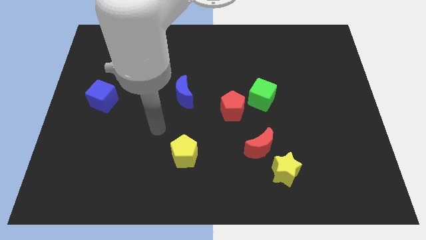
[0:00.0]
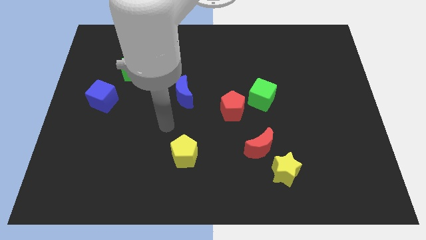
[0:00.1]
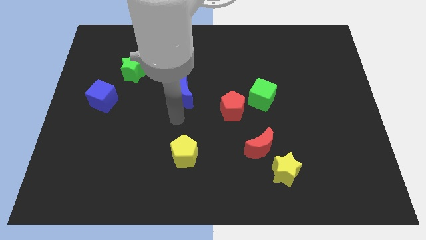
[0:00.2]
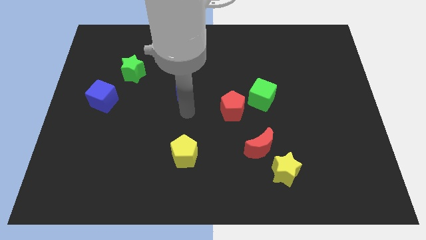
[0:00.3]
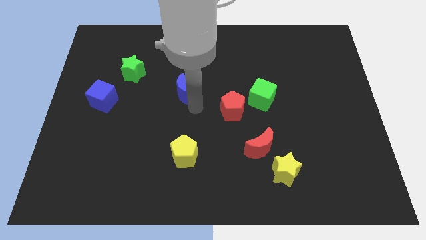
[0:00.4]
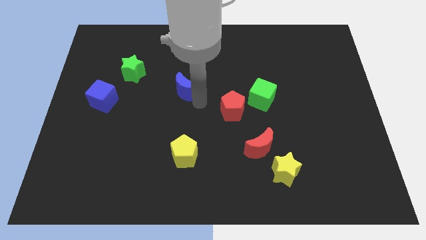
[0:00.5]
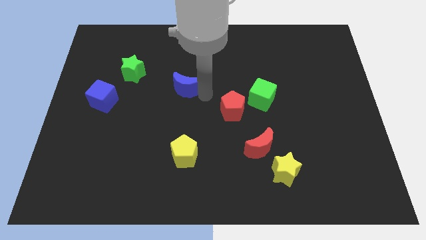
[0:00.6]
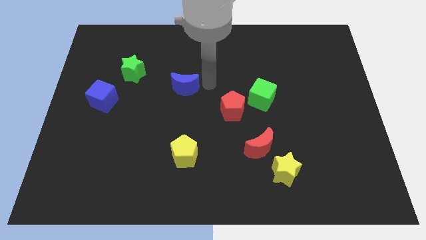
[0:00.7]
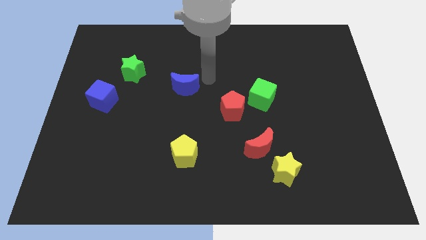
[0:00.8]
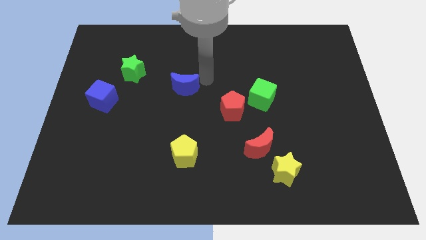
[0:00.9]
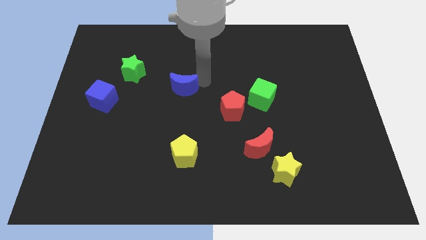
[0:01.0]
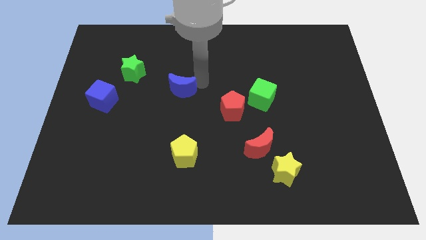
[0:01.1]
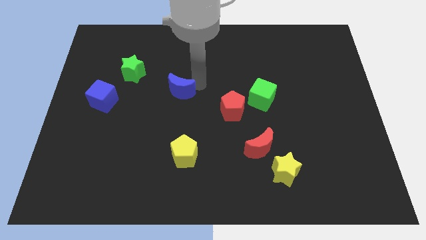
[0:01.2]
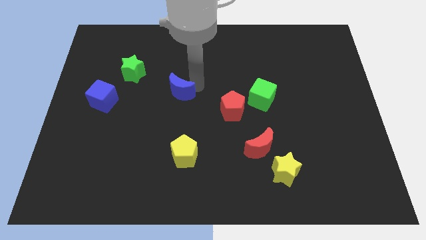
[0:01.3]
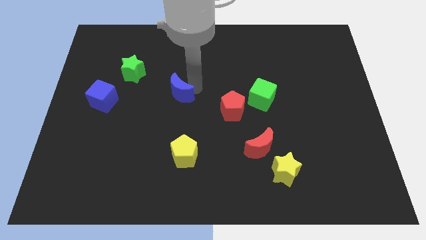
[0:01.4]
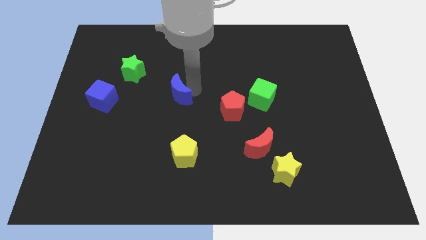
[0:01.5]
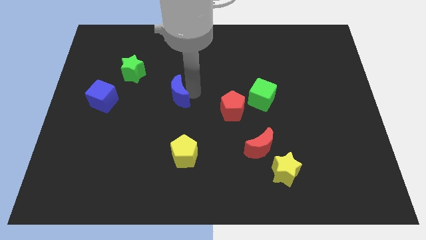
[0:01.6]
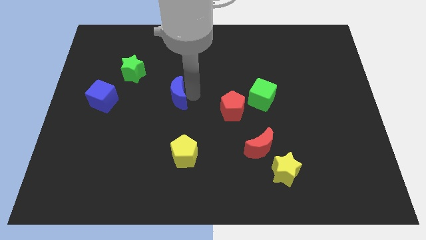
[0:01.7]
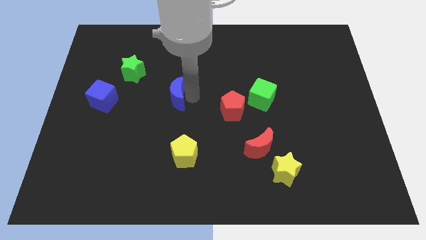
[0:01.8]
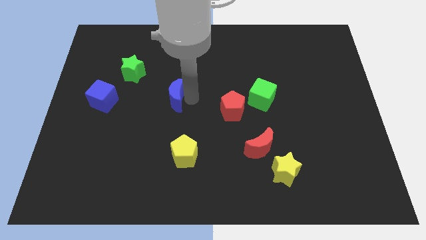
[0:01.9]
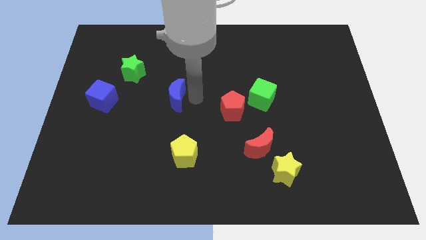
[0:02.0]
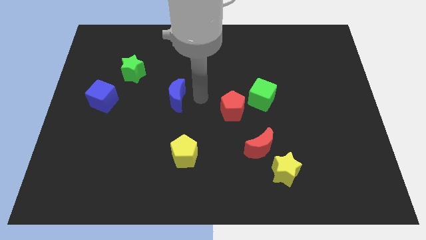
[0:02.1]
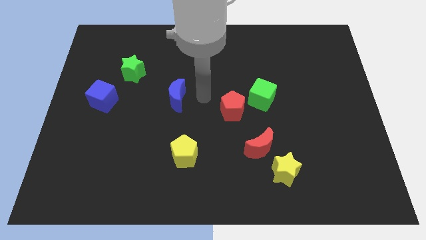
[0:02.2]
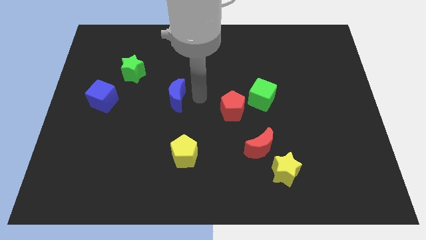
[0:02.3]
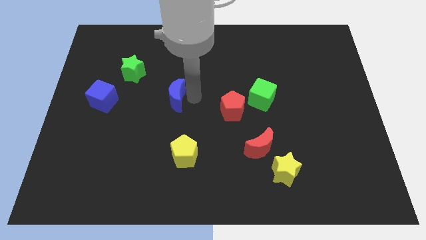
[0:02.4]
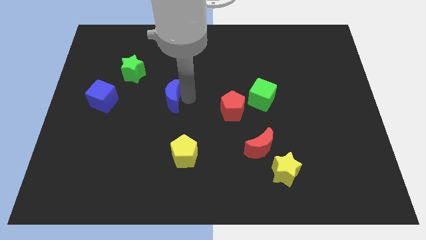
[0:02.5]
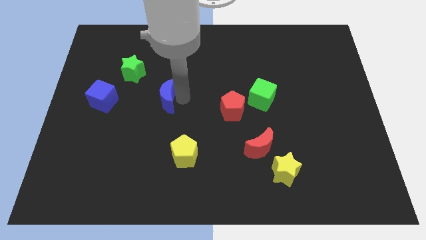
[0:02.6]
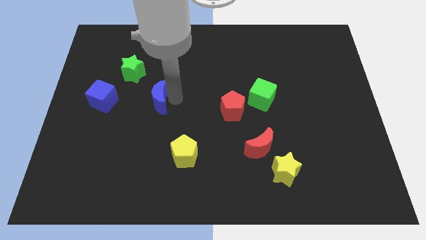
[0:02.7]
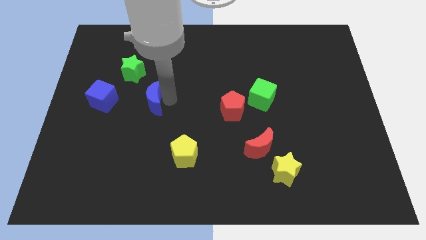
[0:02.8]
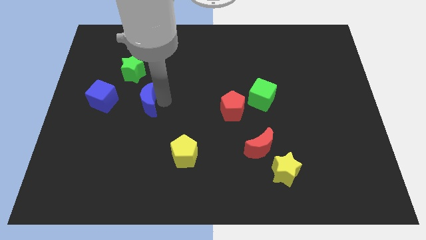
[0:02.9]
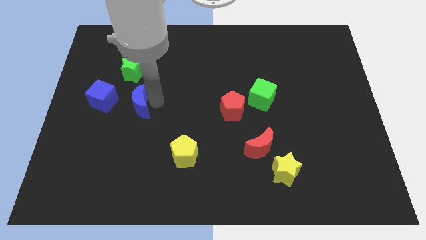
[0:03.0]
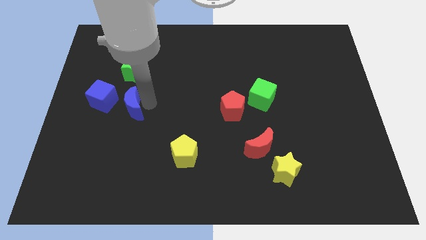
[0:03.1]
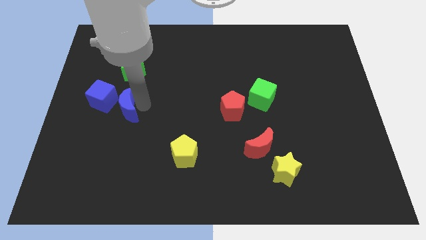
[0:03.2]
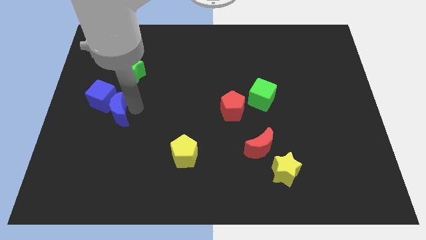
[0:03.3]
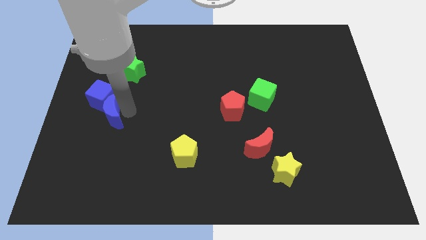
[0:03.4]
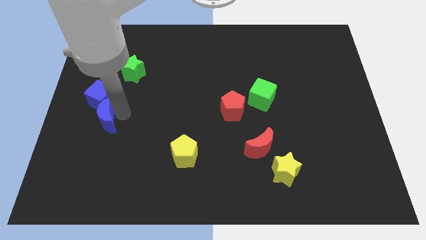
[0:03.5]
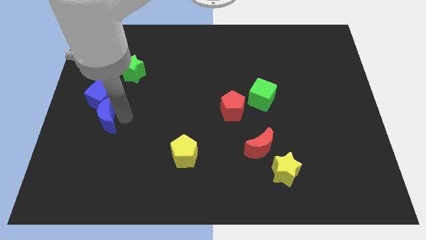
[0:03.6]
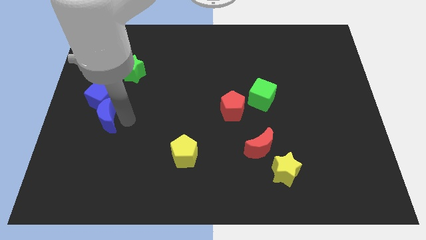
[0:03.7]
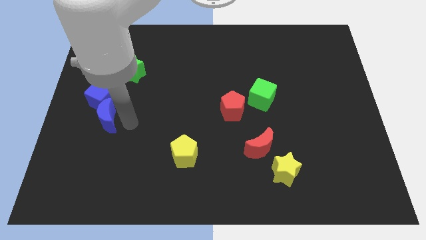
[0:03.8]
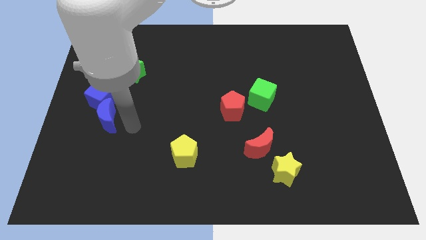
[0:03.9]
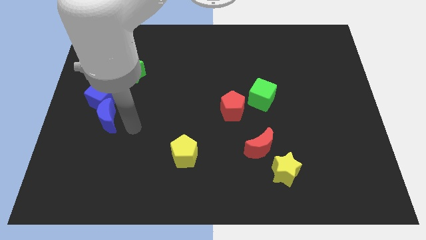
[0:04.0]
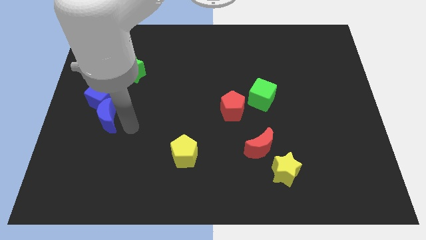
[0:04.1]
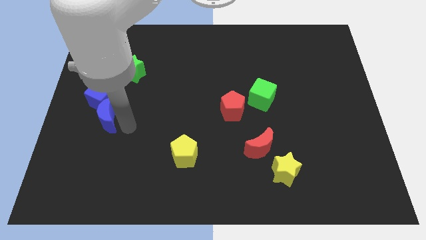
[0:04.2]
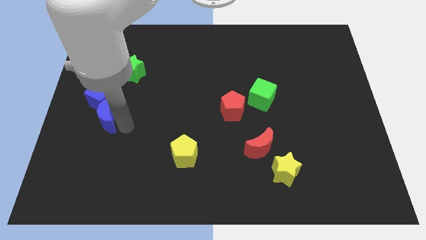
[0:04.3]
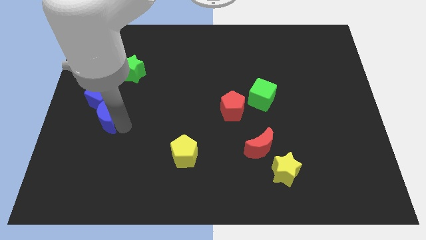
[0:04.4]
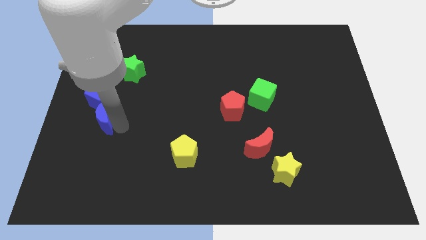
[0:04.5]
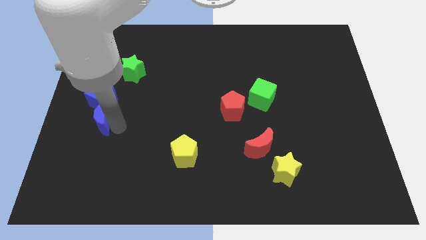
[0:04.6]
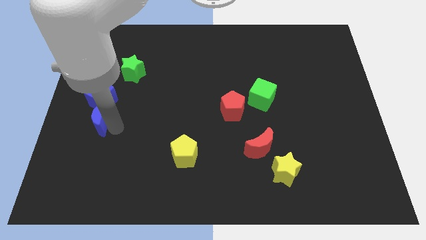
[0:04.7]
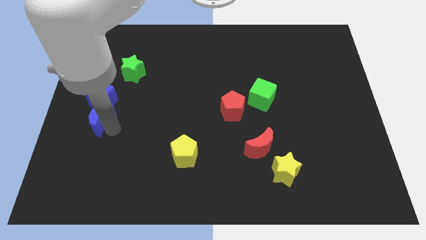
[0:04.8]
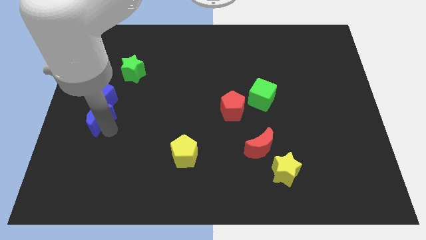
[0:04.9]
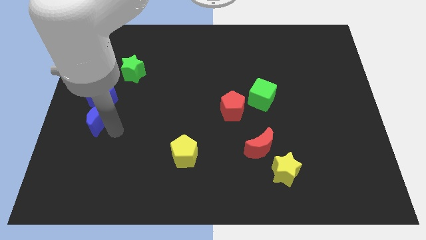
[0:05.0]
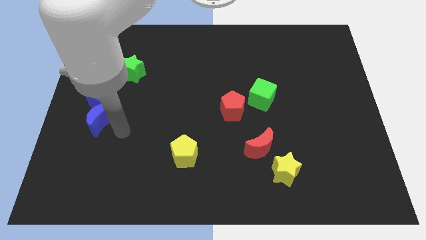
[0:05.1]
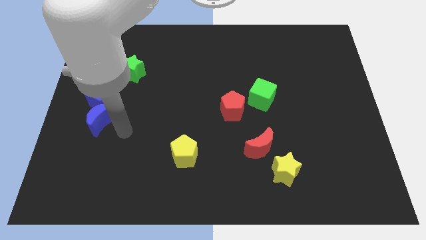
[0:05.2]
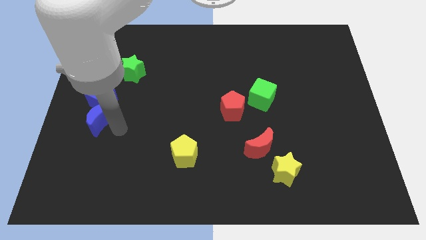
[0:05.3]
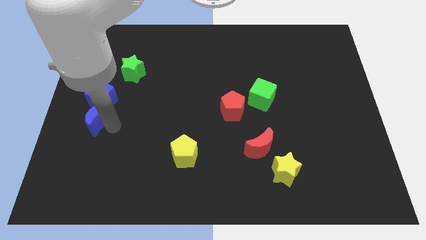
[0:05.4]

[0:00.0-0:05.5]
slide the blue moon to the left side of the board

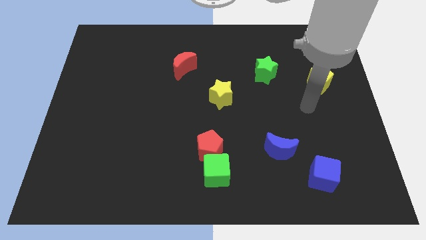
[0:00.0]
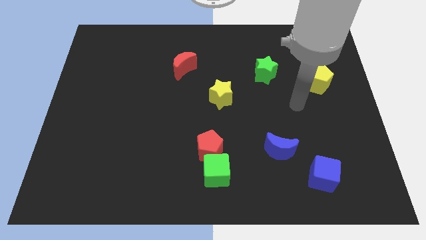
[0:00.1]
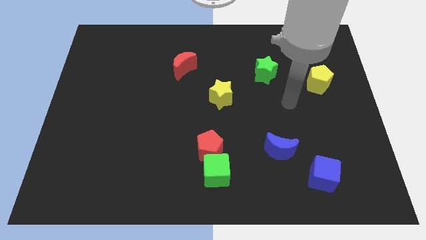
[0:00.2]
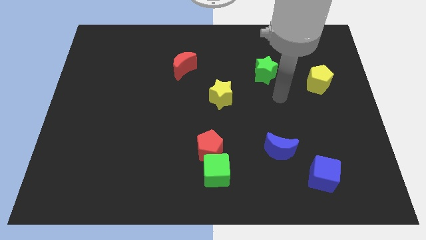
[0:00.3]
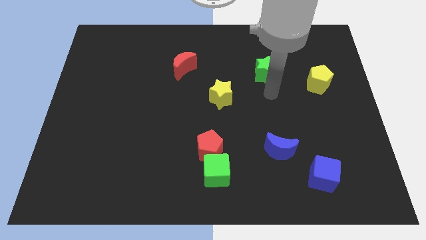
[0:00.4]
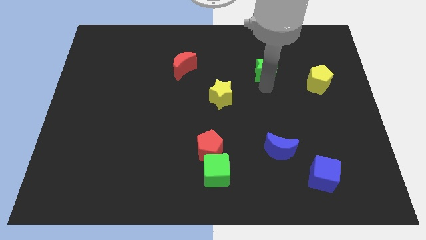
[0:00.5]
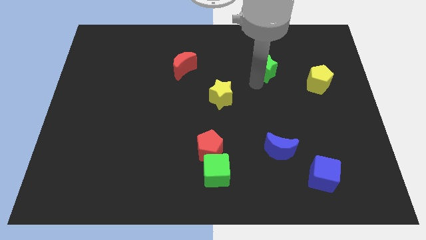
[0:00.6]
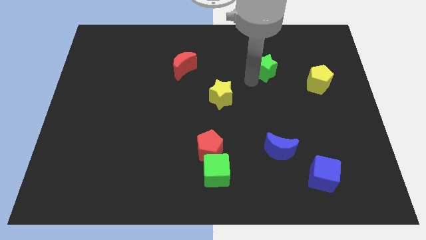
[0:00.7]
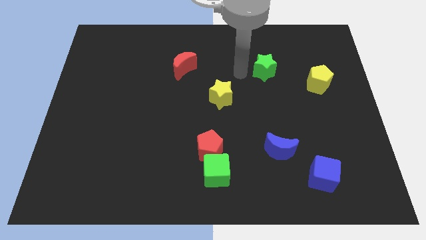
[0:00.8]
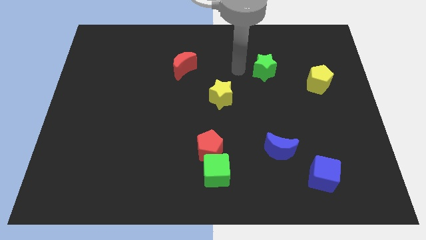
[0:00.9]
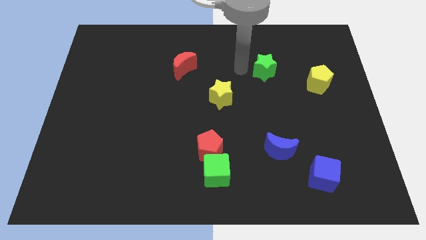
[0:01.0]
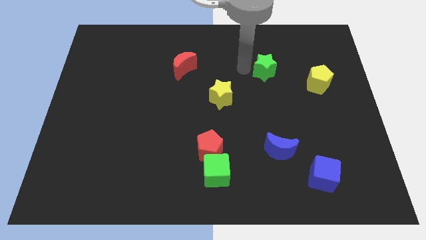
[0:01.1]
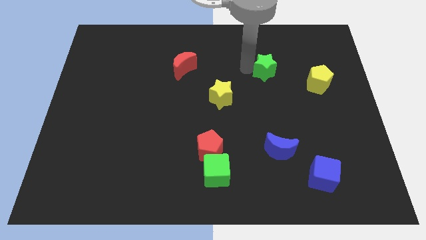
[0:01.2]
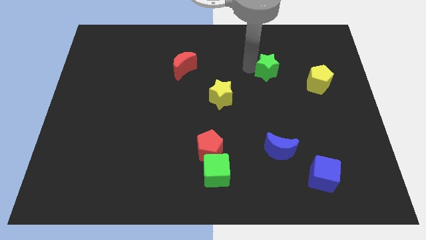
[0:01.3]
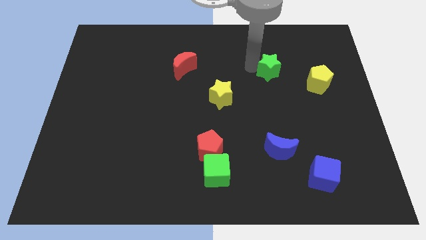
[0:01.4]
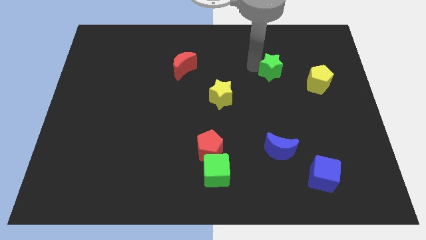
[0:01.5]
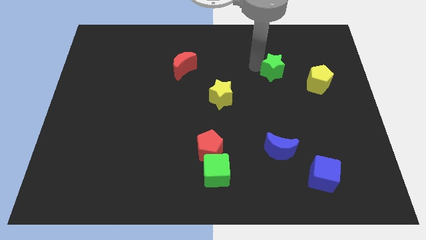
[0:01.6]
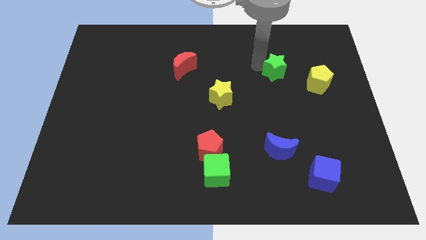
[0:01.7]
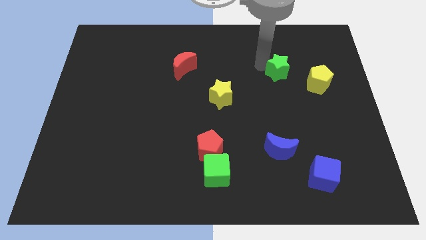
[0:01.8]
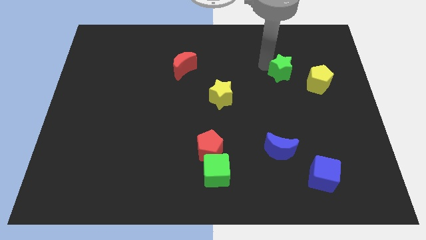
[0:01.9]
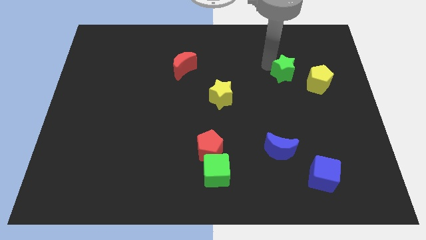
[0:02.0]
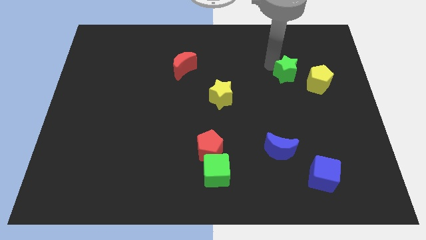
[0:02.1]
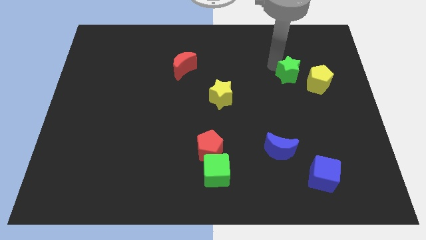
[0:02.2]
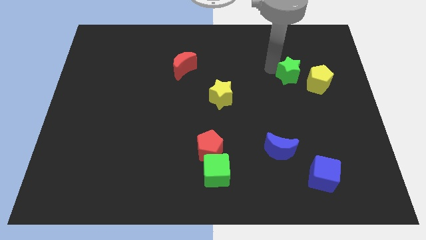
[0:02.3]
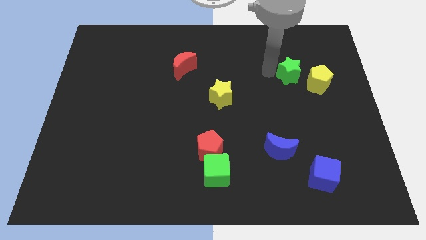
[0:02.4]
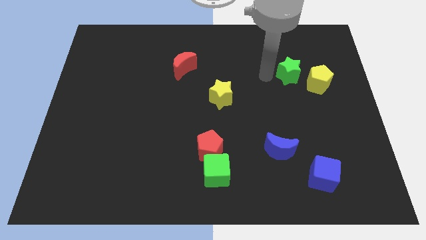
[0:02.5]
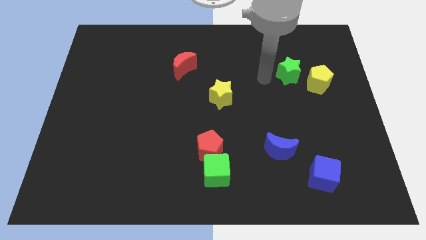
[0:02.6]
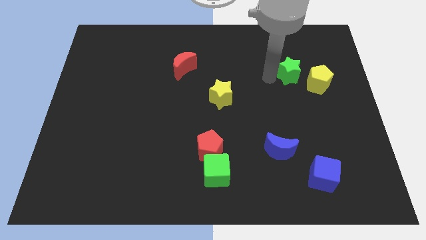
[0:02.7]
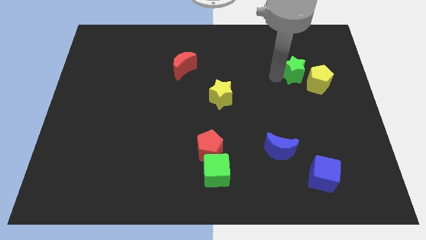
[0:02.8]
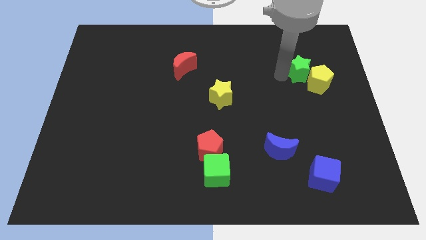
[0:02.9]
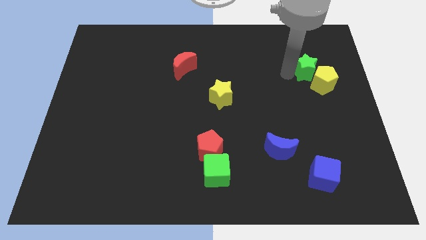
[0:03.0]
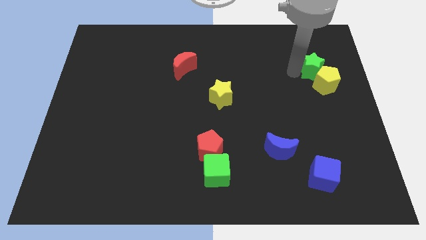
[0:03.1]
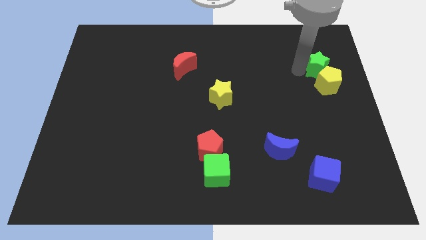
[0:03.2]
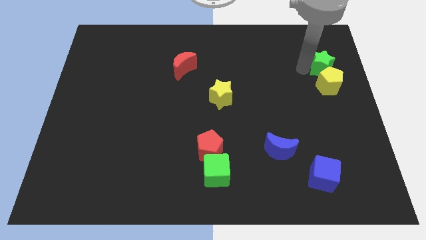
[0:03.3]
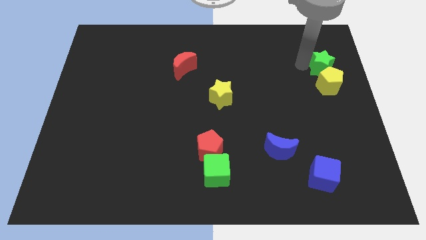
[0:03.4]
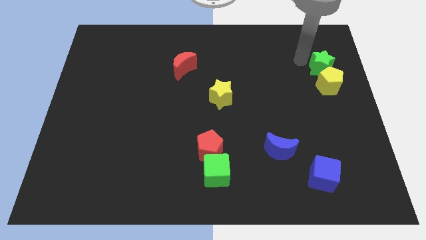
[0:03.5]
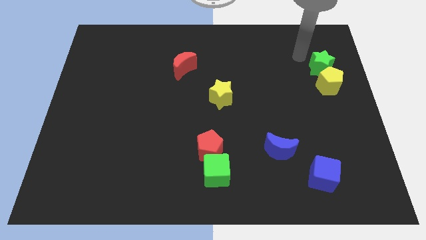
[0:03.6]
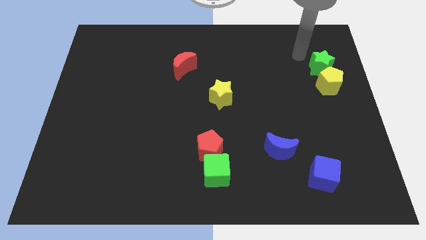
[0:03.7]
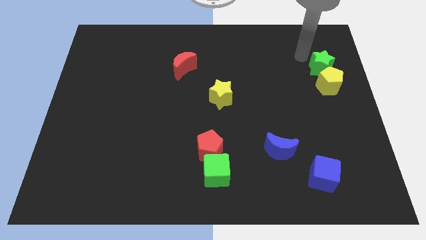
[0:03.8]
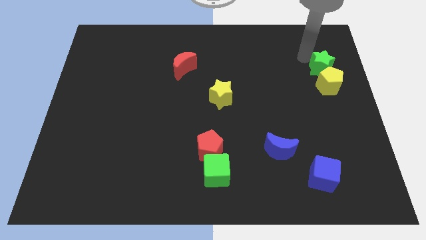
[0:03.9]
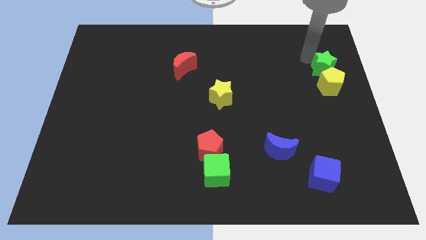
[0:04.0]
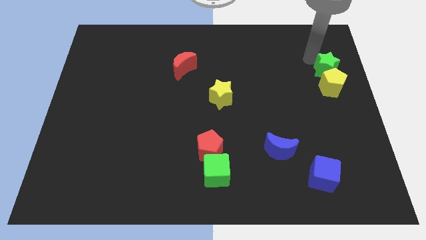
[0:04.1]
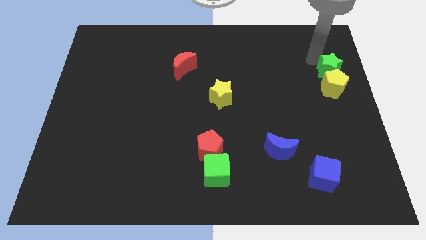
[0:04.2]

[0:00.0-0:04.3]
put the green star to the center right
